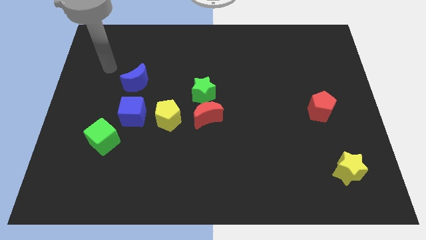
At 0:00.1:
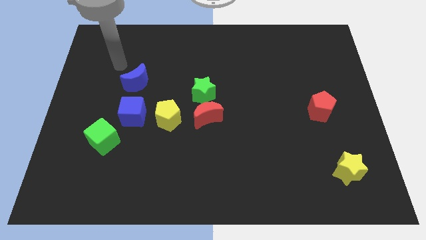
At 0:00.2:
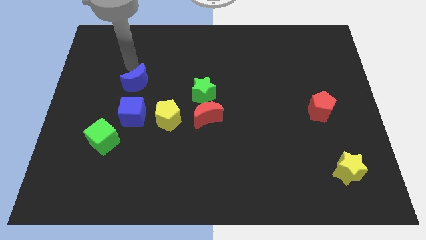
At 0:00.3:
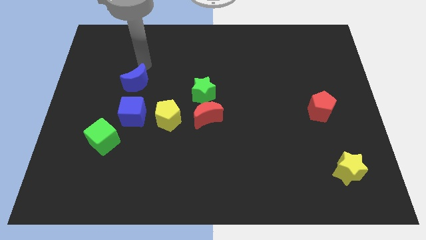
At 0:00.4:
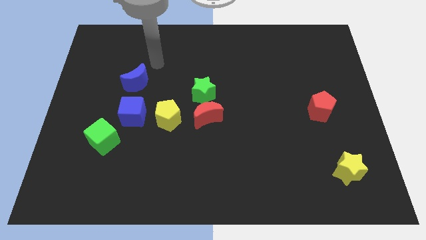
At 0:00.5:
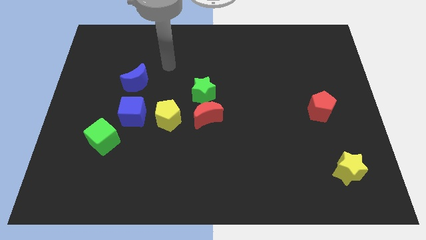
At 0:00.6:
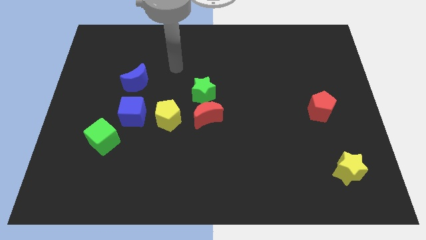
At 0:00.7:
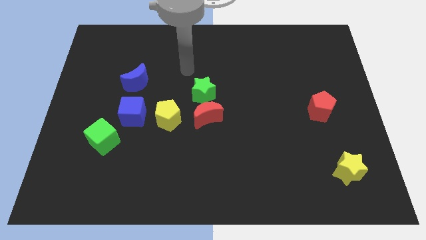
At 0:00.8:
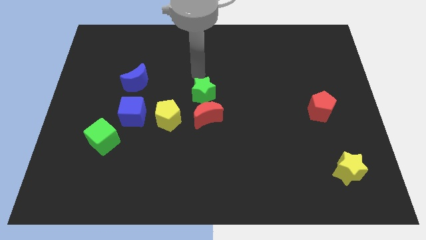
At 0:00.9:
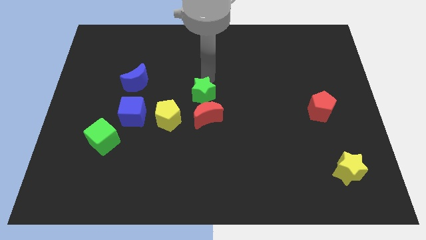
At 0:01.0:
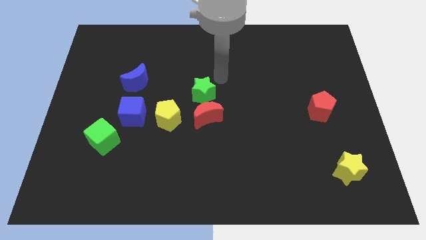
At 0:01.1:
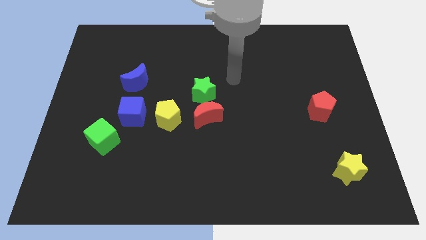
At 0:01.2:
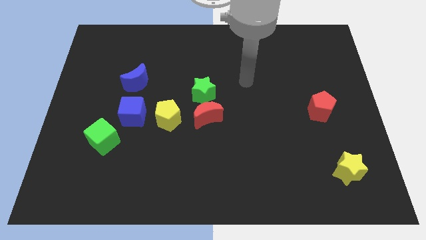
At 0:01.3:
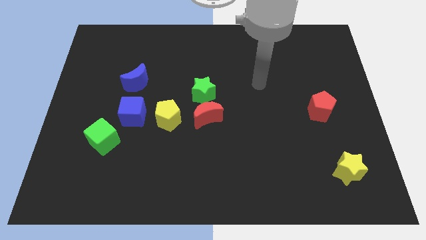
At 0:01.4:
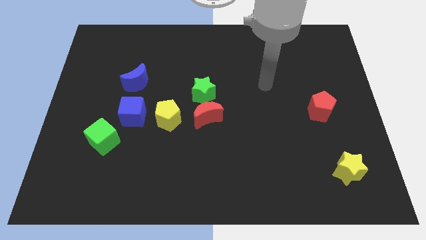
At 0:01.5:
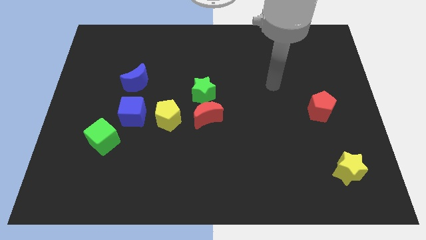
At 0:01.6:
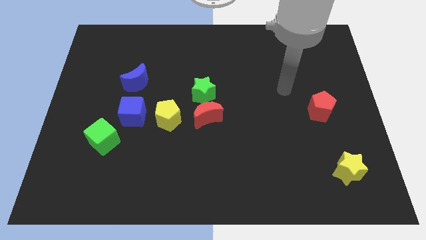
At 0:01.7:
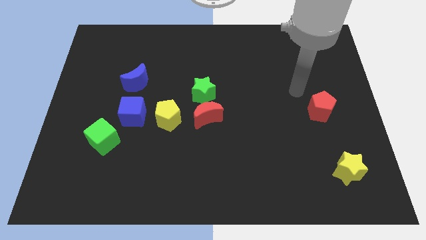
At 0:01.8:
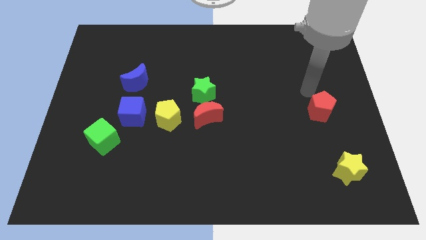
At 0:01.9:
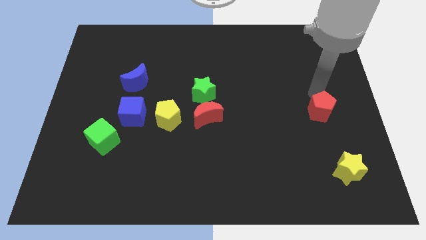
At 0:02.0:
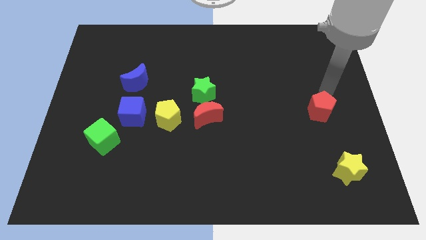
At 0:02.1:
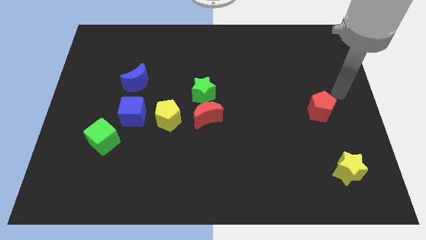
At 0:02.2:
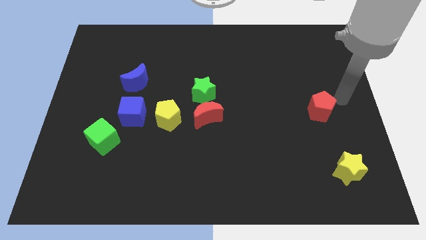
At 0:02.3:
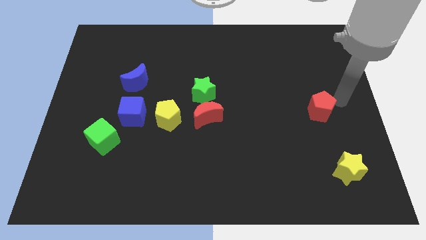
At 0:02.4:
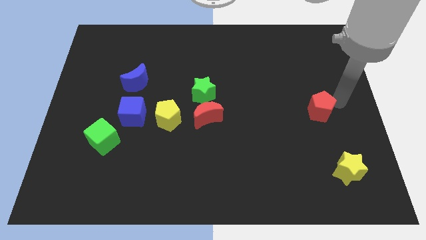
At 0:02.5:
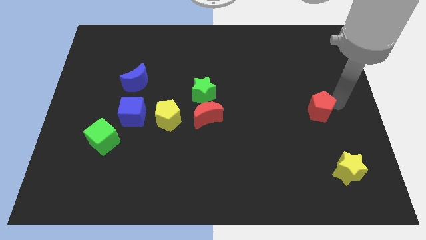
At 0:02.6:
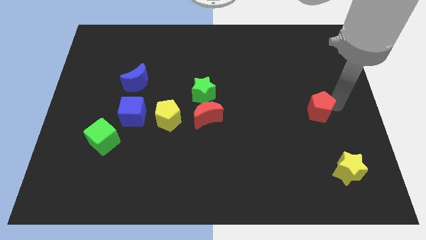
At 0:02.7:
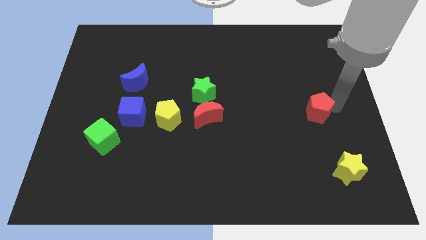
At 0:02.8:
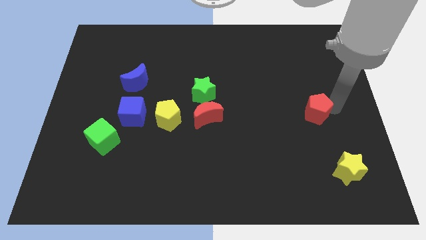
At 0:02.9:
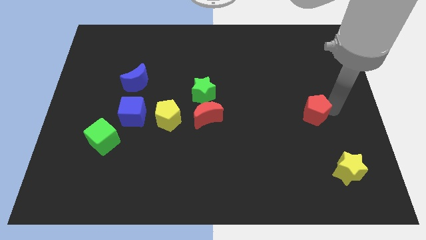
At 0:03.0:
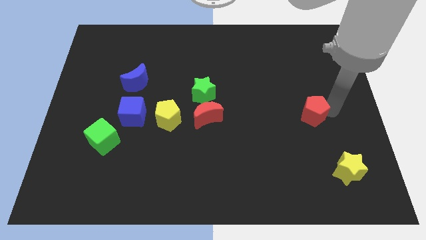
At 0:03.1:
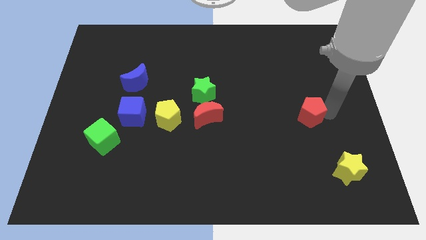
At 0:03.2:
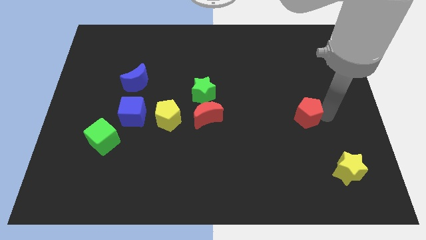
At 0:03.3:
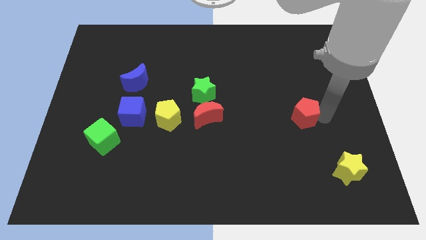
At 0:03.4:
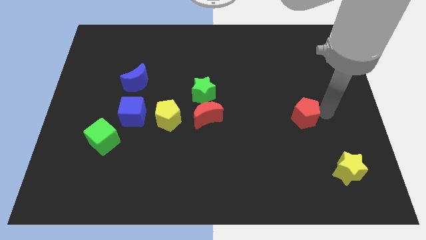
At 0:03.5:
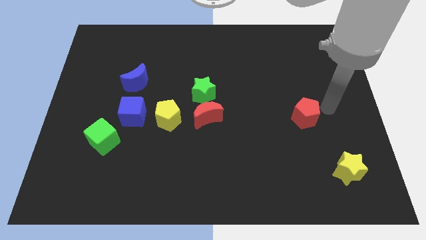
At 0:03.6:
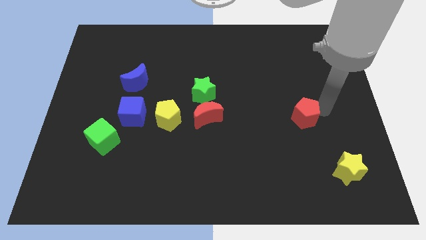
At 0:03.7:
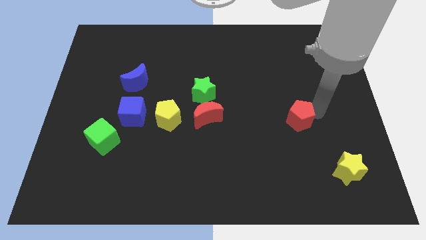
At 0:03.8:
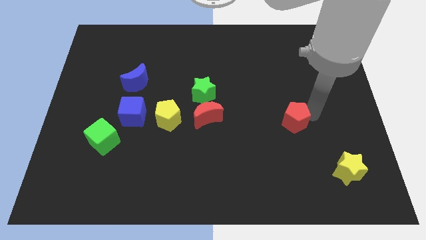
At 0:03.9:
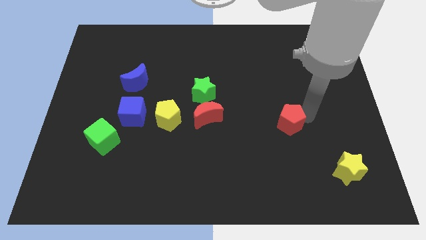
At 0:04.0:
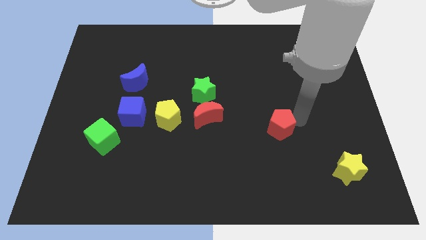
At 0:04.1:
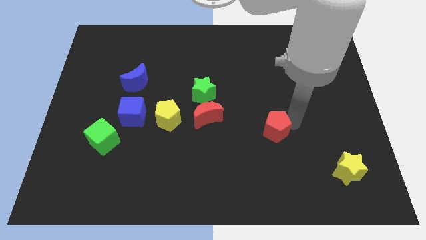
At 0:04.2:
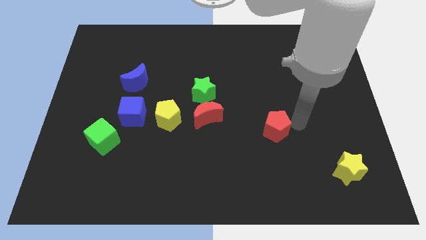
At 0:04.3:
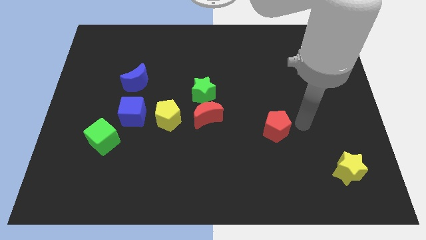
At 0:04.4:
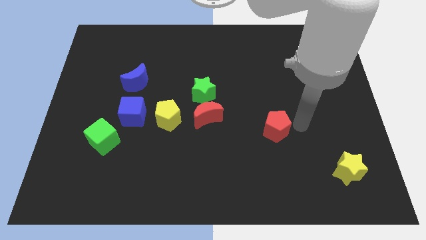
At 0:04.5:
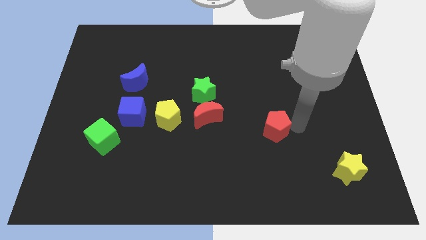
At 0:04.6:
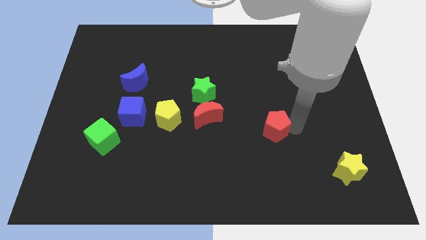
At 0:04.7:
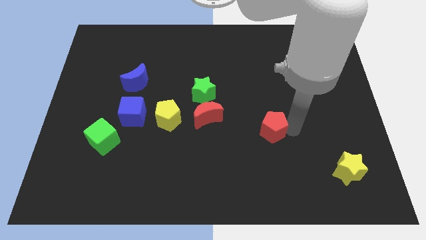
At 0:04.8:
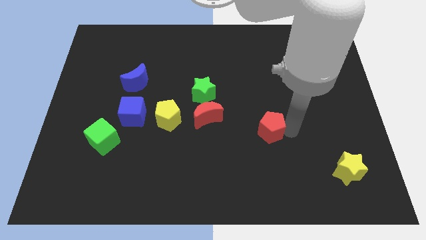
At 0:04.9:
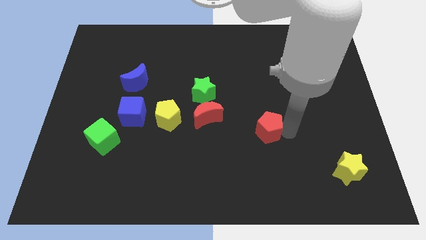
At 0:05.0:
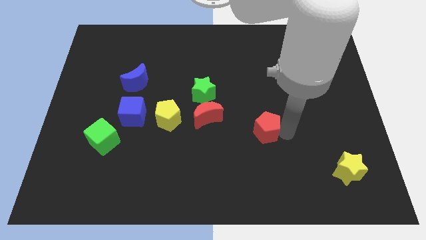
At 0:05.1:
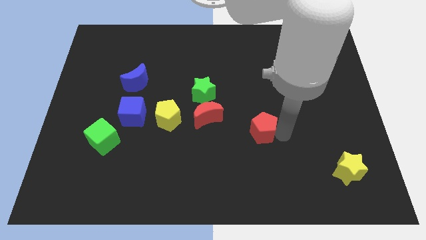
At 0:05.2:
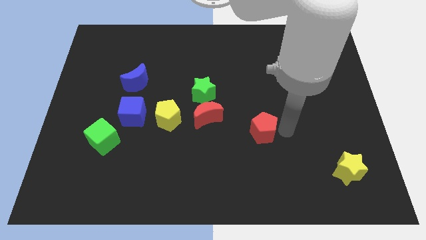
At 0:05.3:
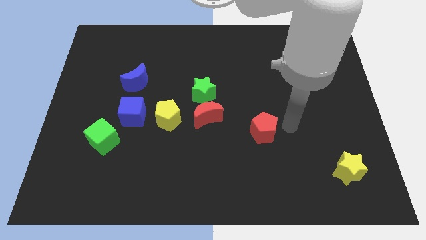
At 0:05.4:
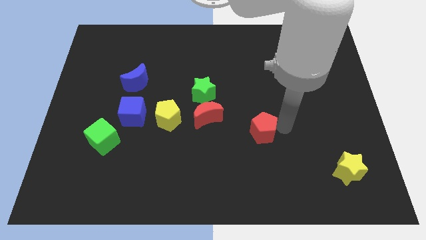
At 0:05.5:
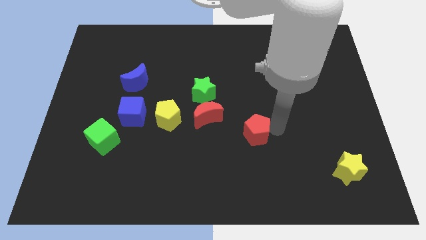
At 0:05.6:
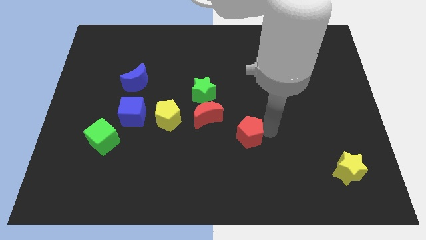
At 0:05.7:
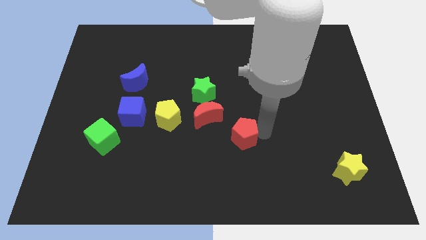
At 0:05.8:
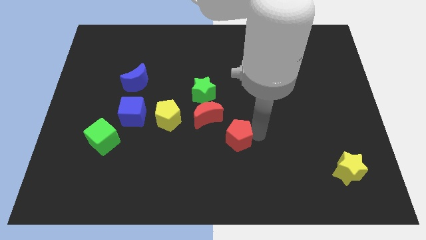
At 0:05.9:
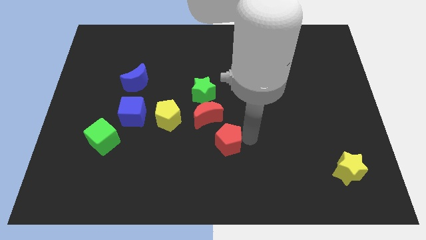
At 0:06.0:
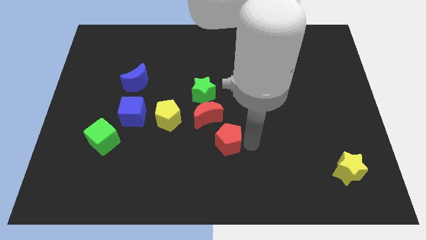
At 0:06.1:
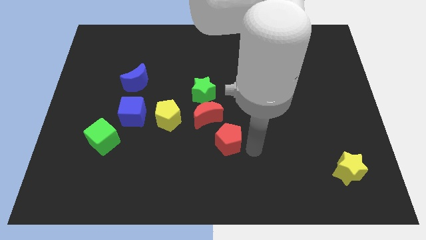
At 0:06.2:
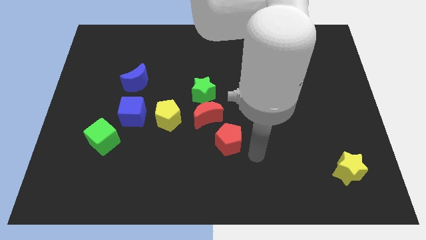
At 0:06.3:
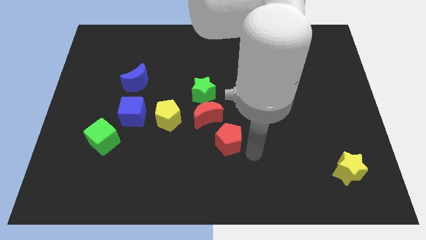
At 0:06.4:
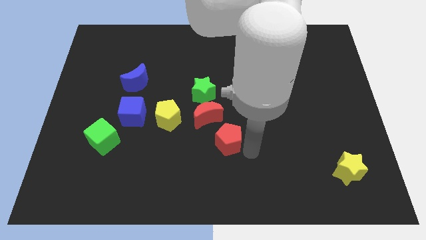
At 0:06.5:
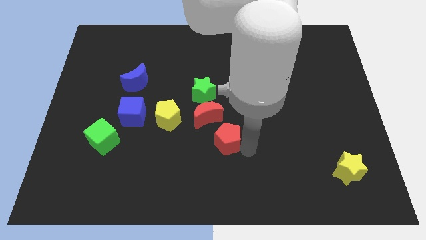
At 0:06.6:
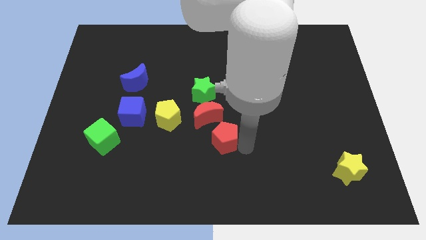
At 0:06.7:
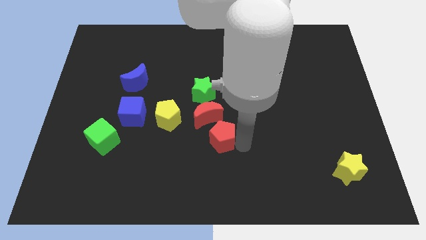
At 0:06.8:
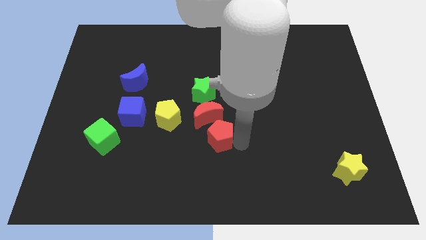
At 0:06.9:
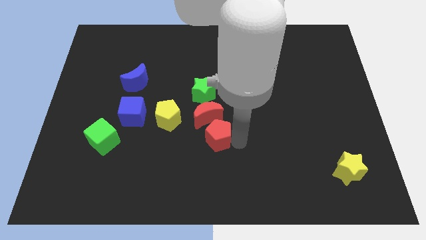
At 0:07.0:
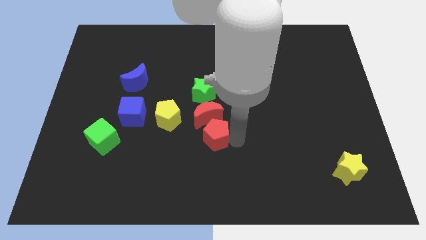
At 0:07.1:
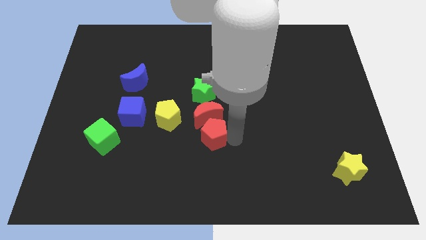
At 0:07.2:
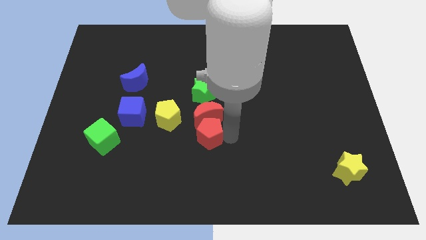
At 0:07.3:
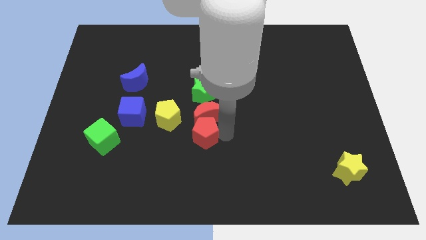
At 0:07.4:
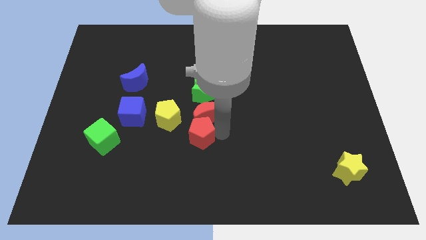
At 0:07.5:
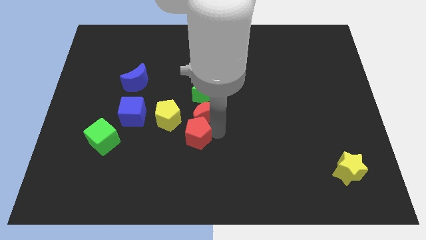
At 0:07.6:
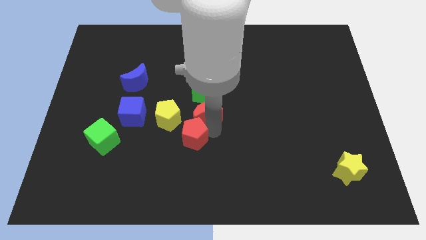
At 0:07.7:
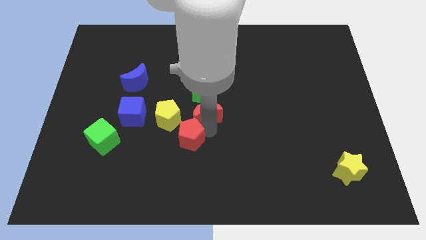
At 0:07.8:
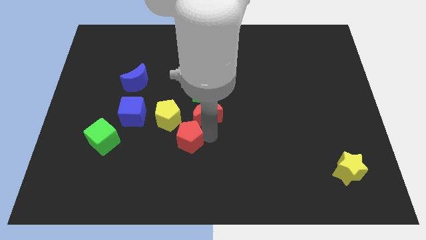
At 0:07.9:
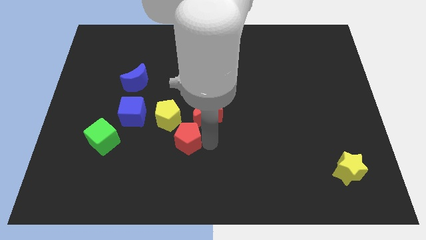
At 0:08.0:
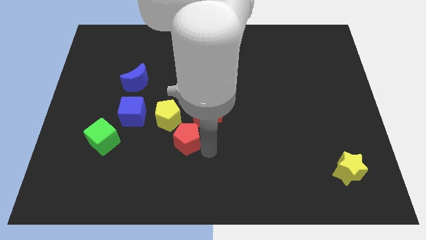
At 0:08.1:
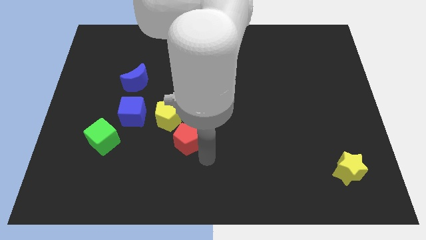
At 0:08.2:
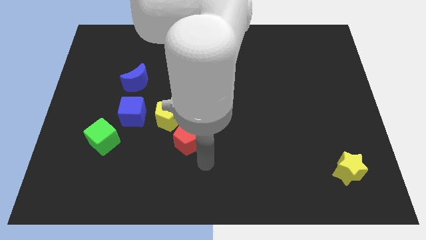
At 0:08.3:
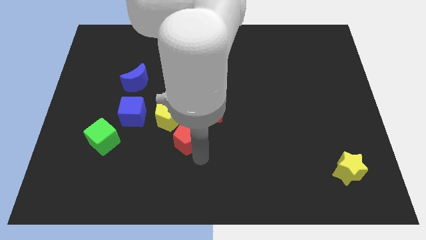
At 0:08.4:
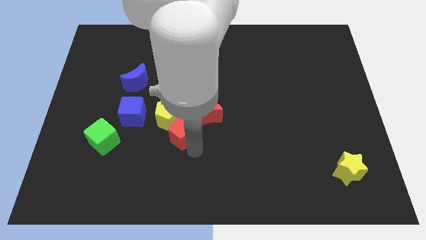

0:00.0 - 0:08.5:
put the red pentagon next to the yellow pentagon

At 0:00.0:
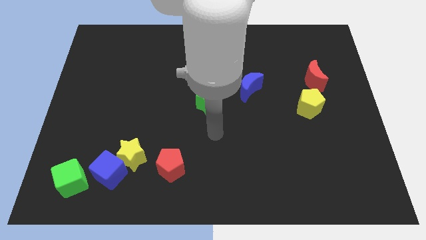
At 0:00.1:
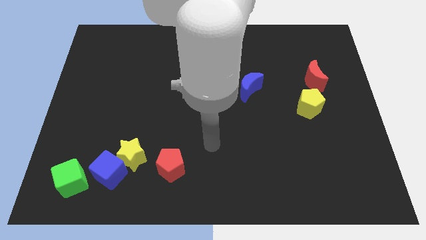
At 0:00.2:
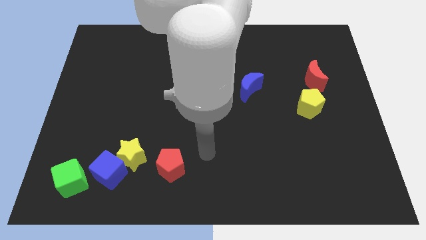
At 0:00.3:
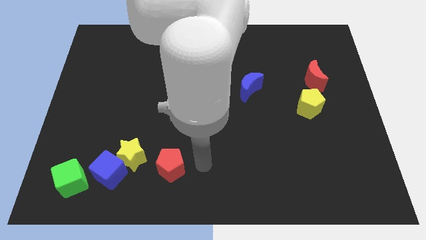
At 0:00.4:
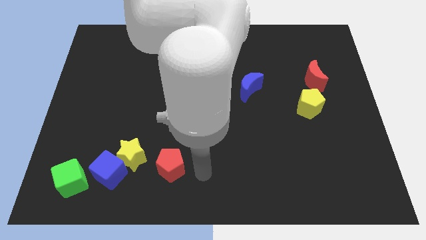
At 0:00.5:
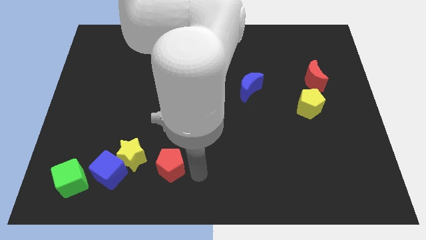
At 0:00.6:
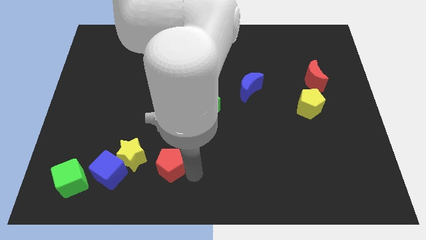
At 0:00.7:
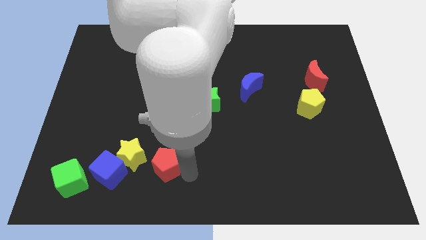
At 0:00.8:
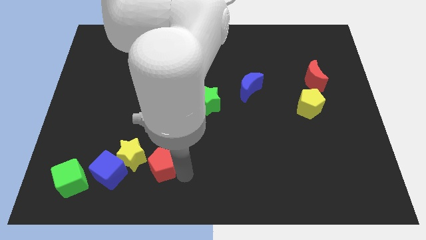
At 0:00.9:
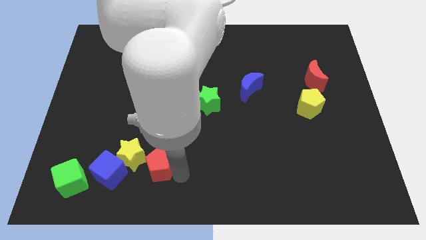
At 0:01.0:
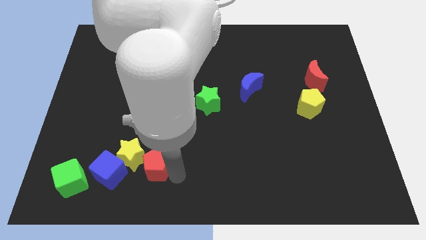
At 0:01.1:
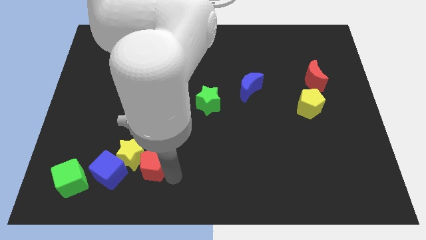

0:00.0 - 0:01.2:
put the red pentagon next to the yellow star
